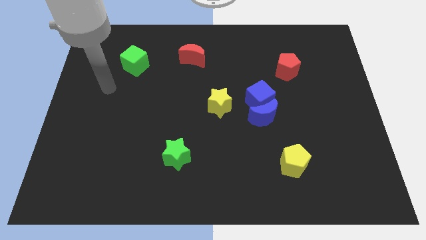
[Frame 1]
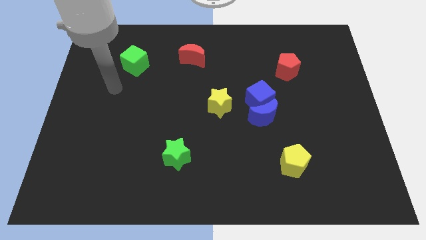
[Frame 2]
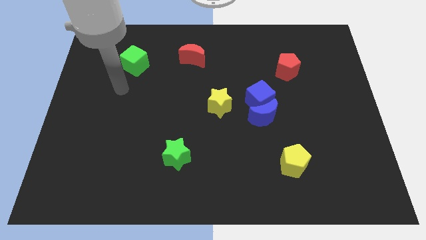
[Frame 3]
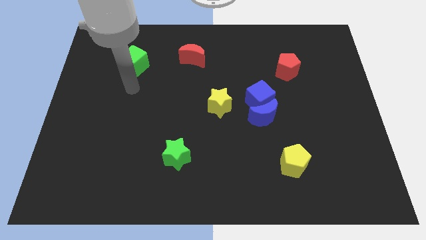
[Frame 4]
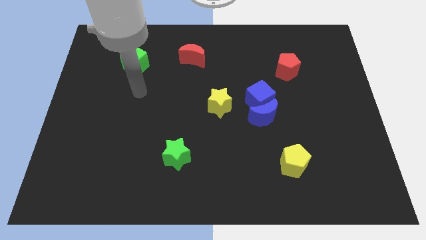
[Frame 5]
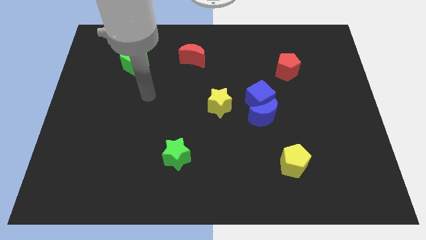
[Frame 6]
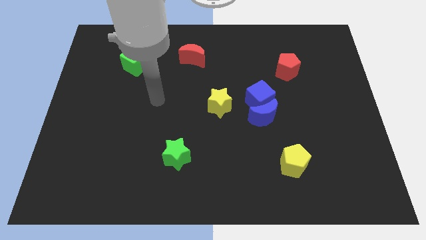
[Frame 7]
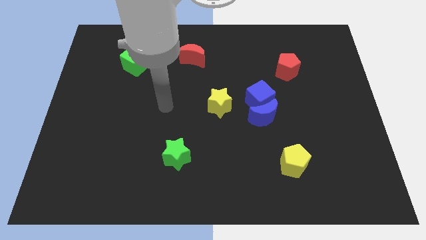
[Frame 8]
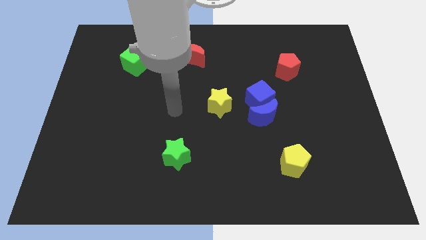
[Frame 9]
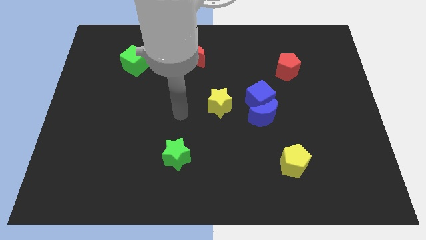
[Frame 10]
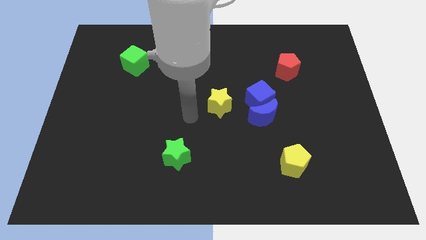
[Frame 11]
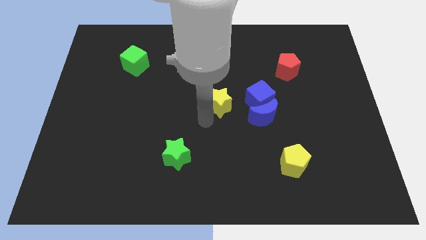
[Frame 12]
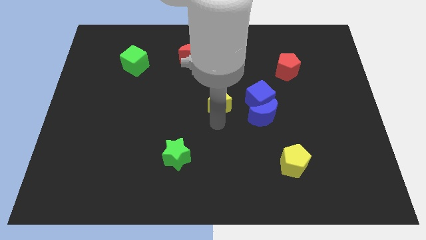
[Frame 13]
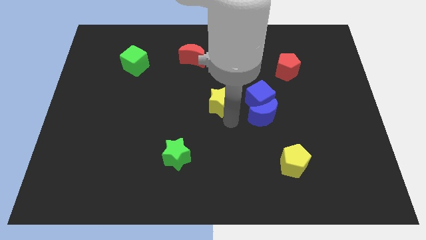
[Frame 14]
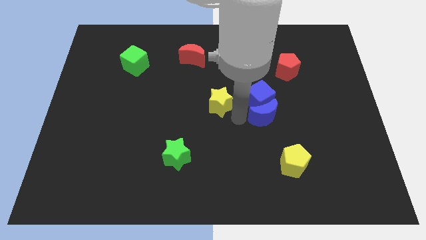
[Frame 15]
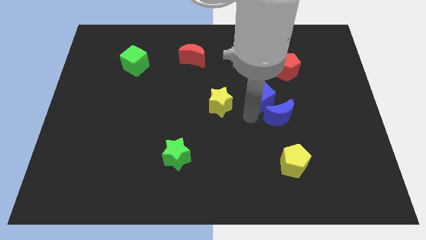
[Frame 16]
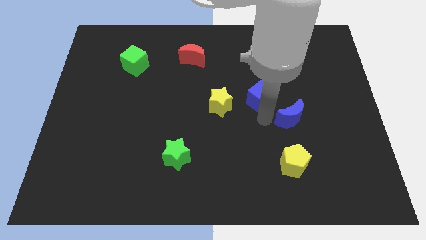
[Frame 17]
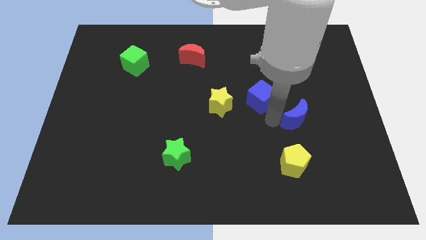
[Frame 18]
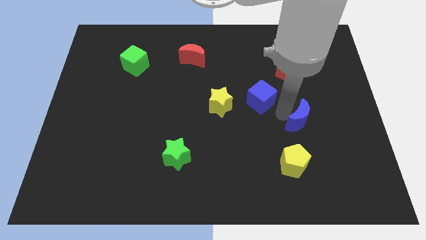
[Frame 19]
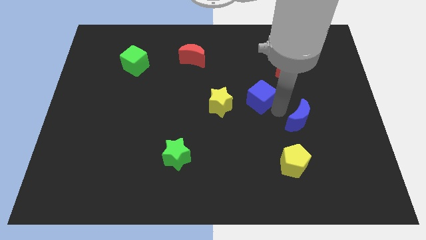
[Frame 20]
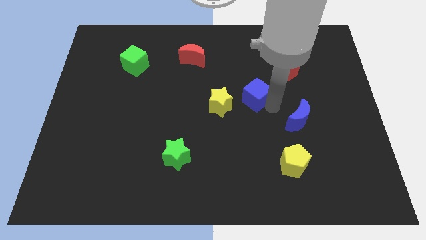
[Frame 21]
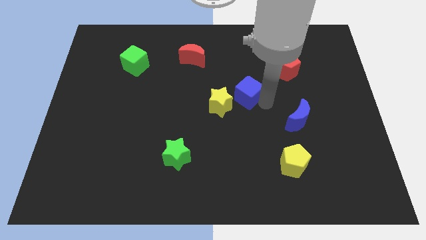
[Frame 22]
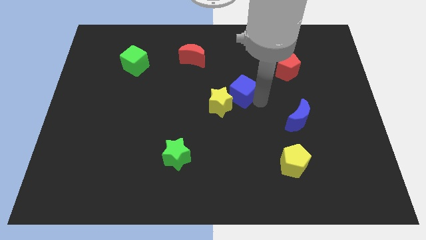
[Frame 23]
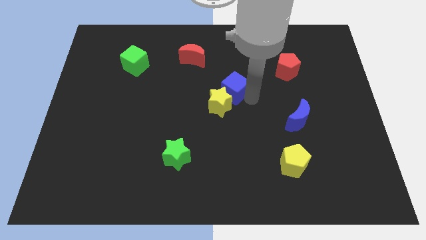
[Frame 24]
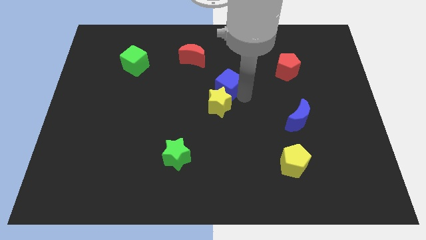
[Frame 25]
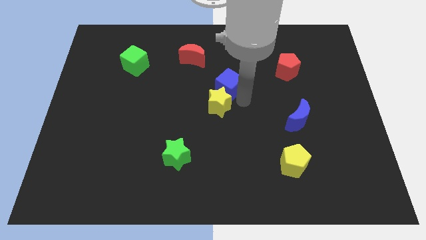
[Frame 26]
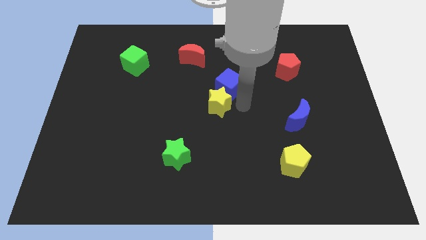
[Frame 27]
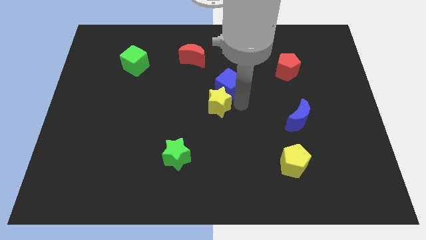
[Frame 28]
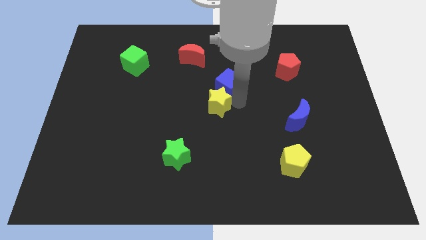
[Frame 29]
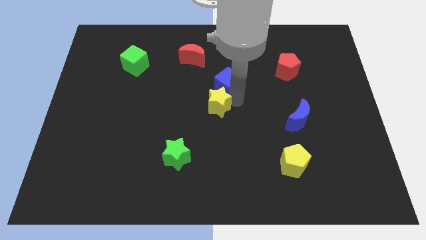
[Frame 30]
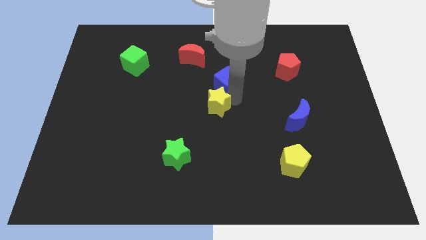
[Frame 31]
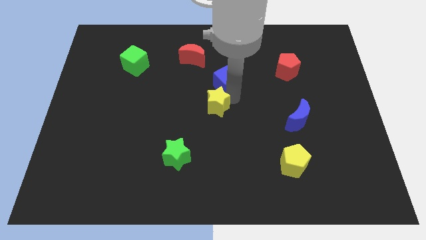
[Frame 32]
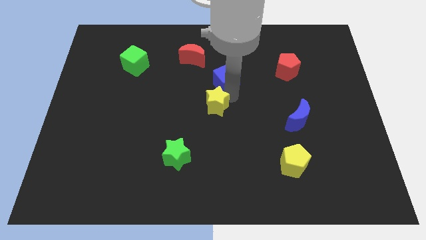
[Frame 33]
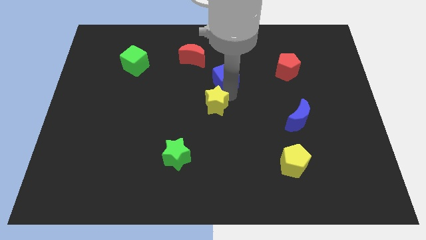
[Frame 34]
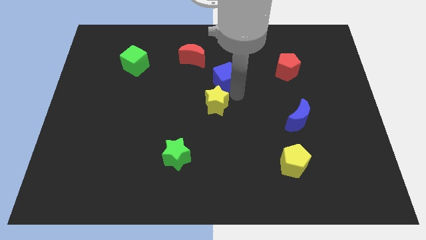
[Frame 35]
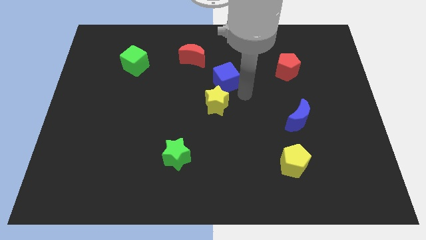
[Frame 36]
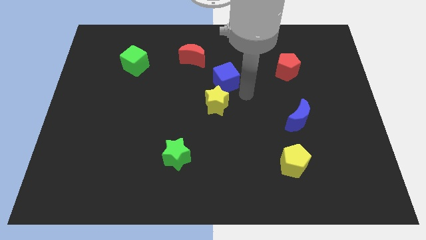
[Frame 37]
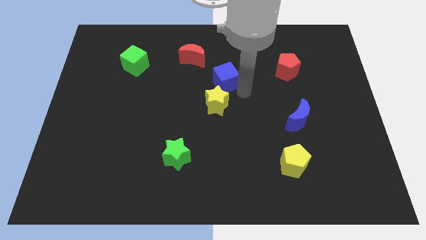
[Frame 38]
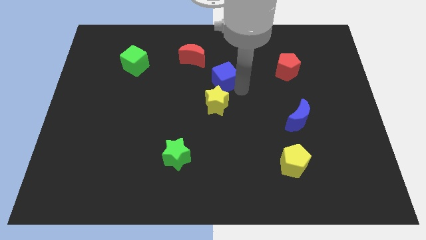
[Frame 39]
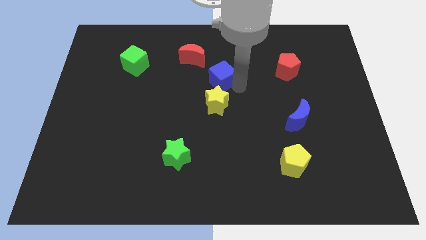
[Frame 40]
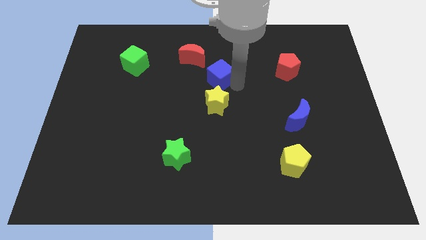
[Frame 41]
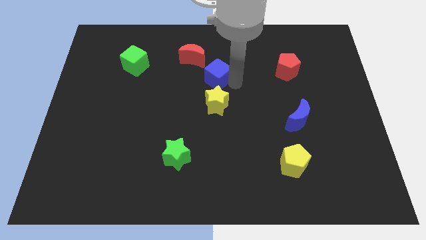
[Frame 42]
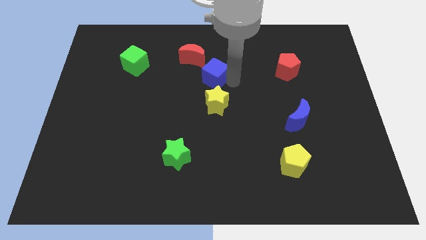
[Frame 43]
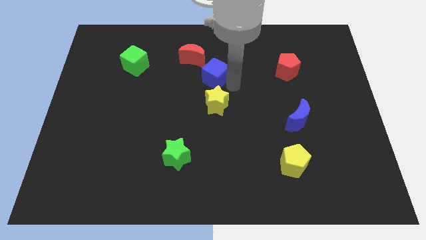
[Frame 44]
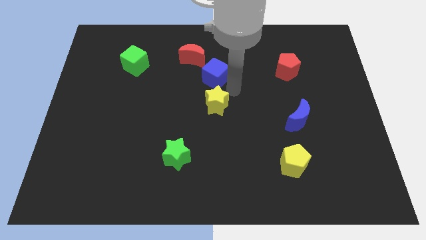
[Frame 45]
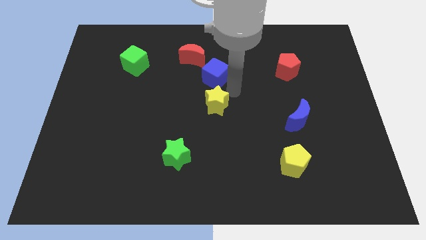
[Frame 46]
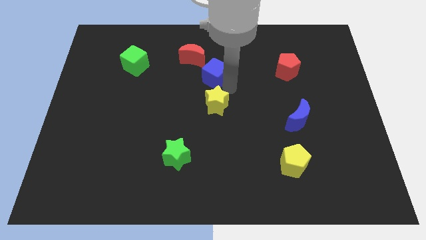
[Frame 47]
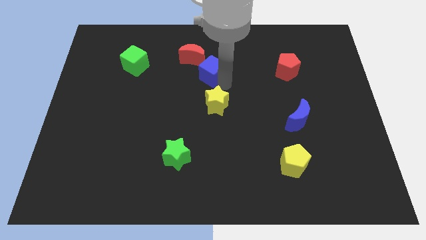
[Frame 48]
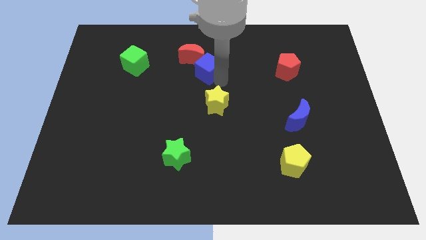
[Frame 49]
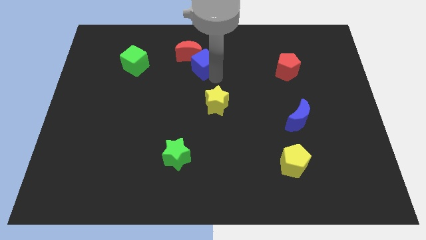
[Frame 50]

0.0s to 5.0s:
slide the blue cube to the red moon

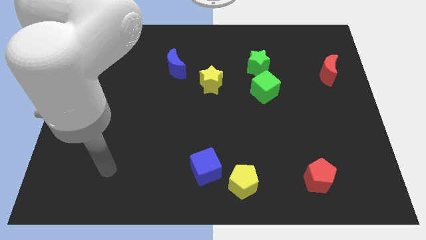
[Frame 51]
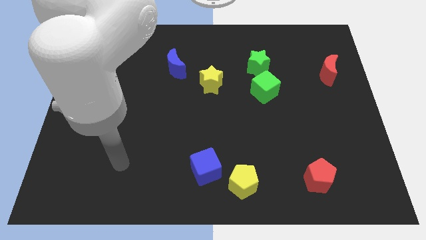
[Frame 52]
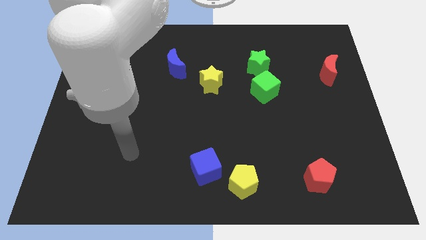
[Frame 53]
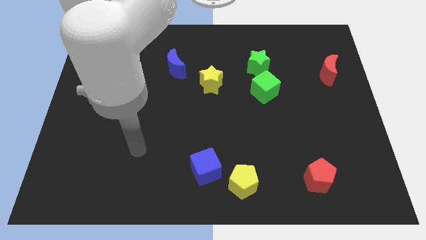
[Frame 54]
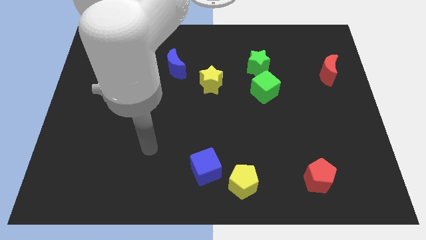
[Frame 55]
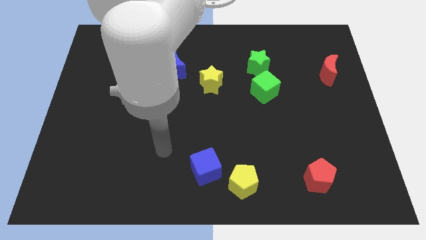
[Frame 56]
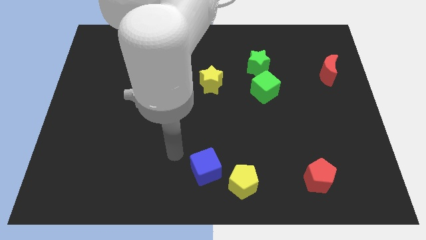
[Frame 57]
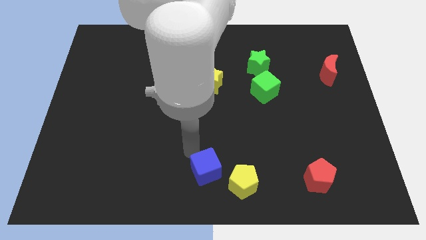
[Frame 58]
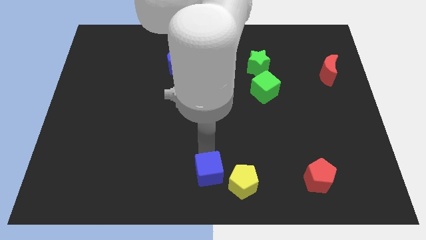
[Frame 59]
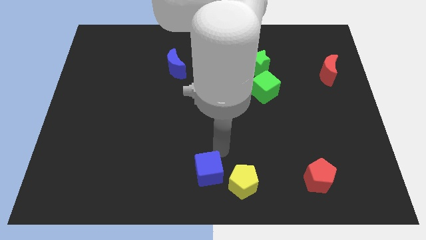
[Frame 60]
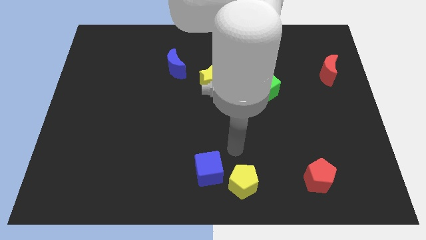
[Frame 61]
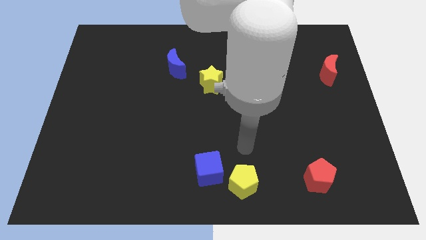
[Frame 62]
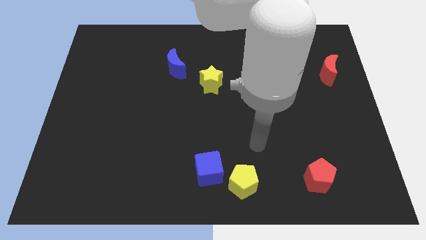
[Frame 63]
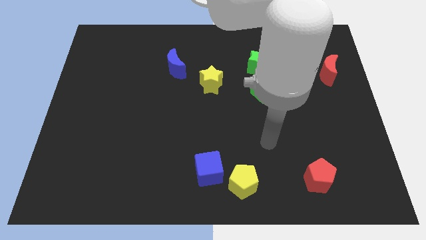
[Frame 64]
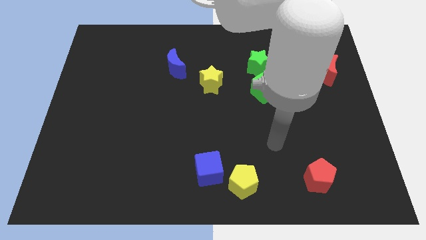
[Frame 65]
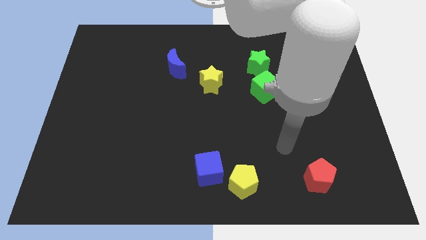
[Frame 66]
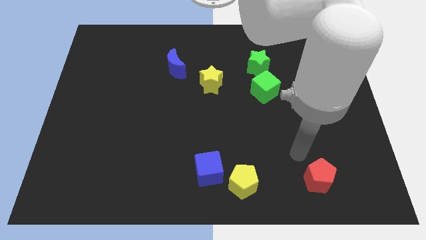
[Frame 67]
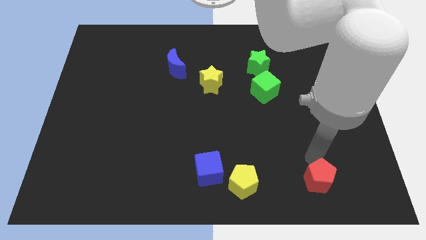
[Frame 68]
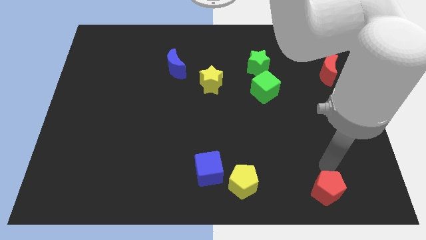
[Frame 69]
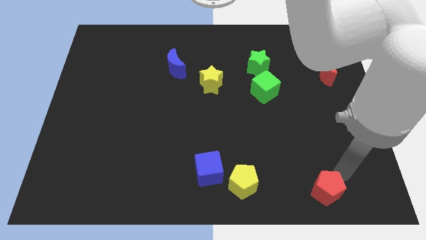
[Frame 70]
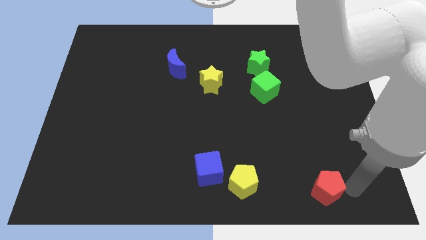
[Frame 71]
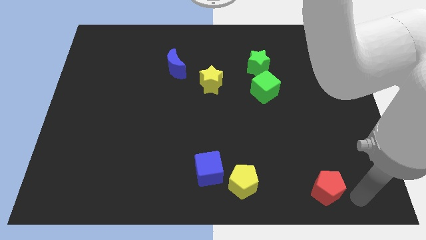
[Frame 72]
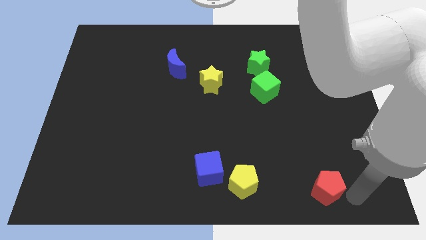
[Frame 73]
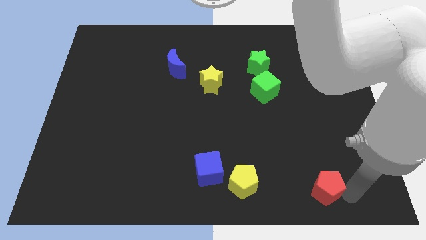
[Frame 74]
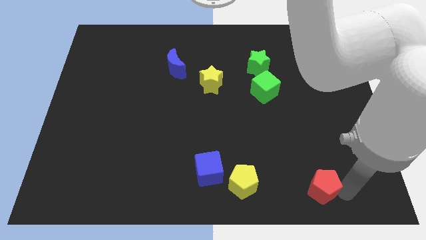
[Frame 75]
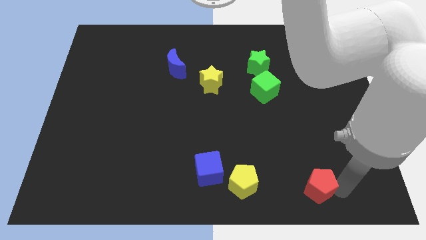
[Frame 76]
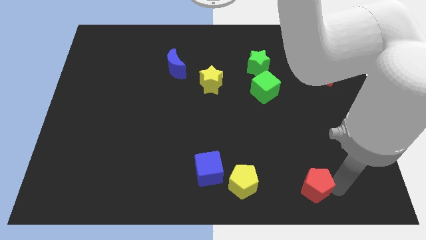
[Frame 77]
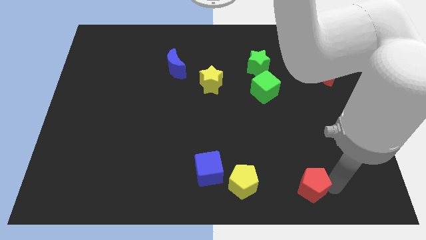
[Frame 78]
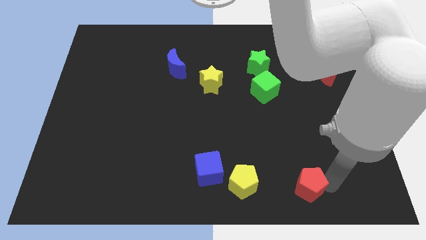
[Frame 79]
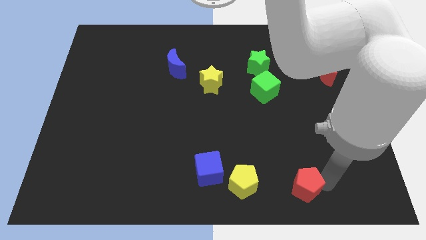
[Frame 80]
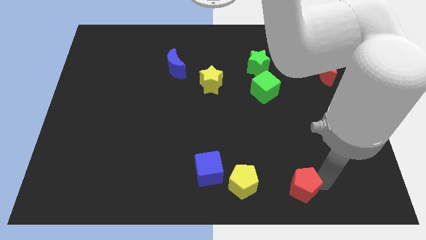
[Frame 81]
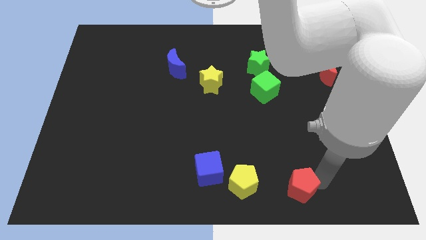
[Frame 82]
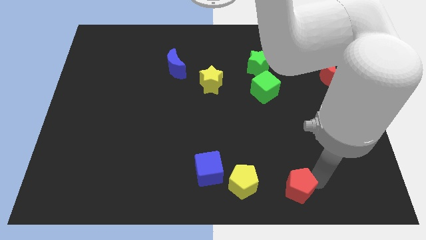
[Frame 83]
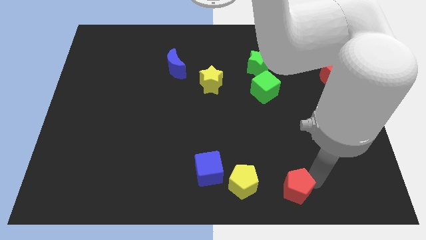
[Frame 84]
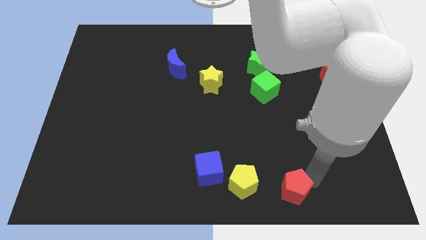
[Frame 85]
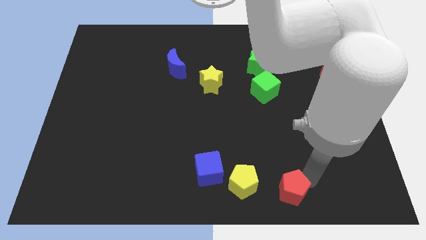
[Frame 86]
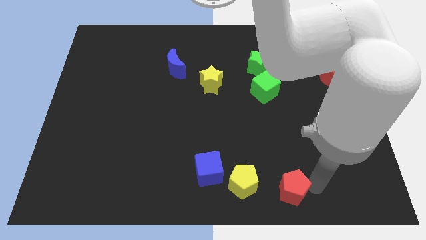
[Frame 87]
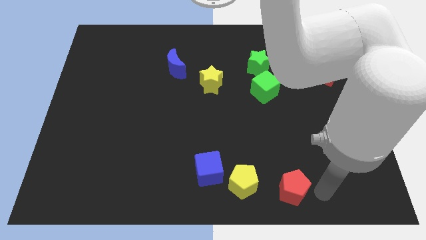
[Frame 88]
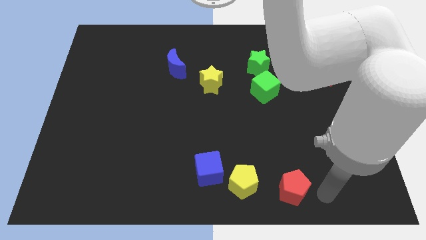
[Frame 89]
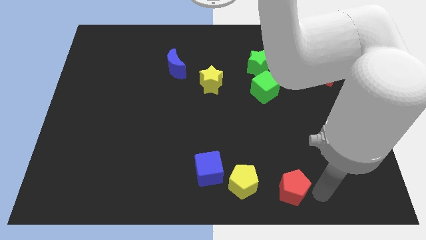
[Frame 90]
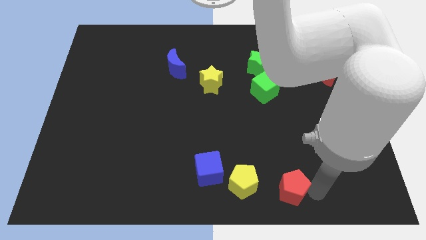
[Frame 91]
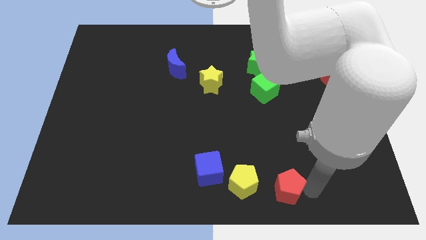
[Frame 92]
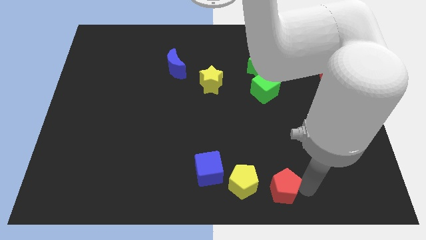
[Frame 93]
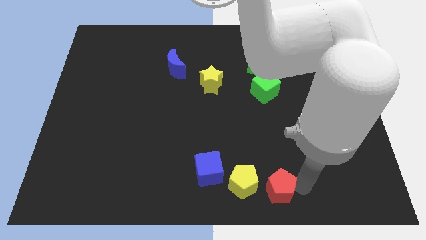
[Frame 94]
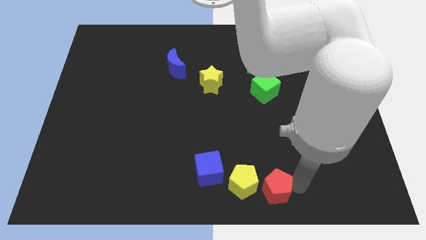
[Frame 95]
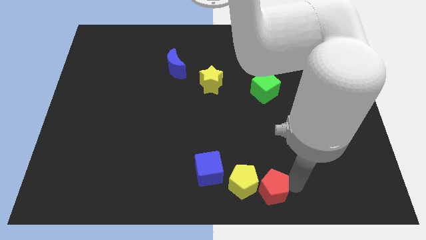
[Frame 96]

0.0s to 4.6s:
move the red pentagon to the yellow pentagon
